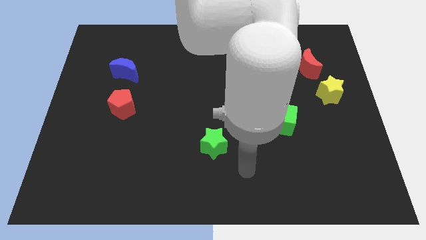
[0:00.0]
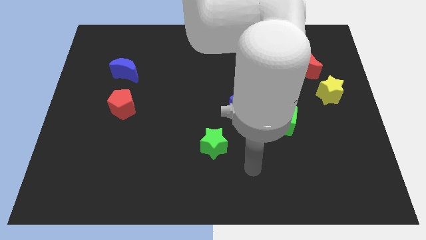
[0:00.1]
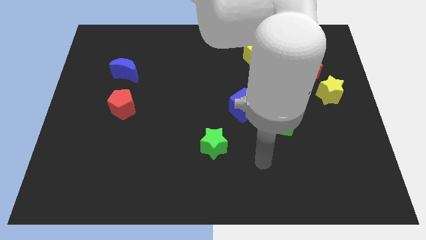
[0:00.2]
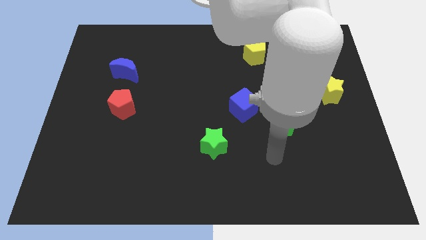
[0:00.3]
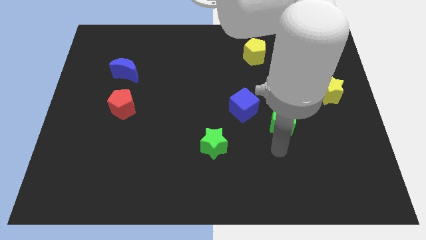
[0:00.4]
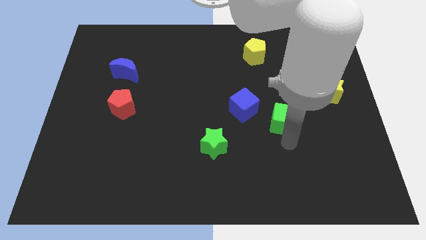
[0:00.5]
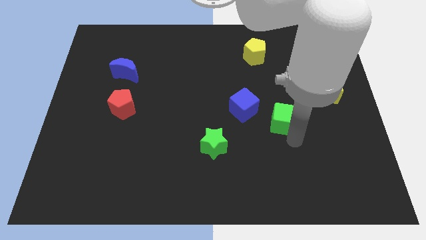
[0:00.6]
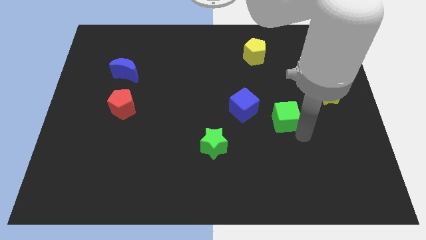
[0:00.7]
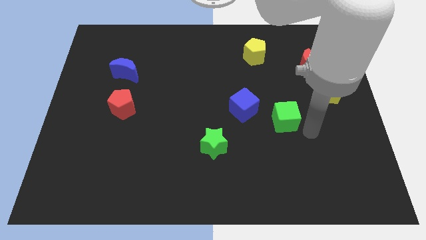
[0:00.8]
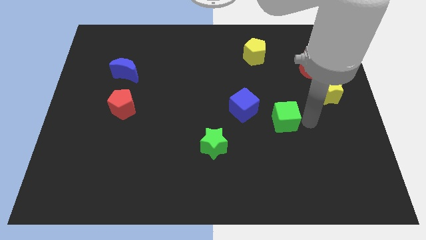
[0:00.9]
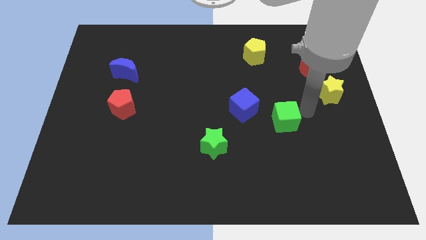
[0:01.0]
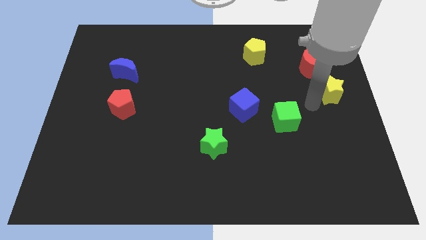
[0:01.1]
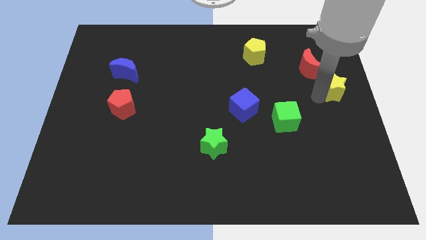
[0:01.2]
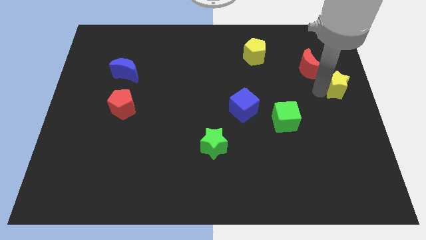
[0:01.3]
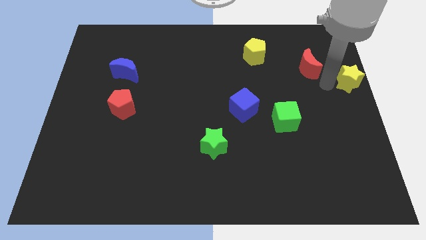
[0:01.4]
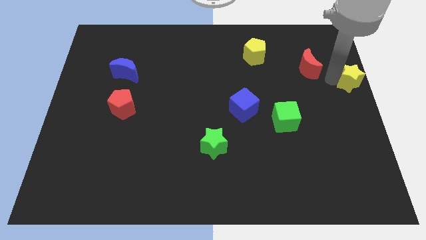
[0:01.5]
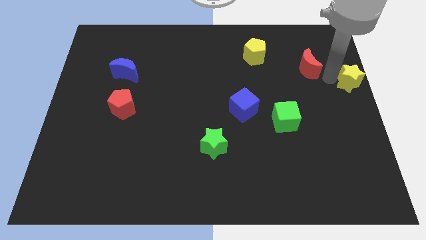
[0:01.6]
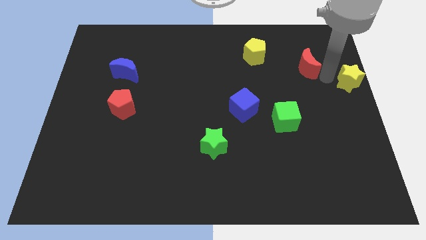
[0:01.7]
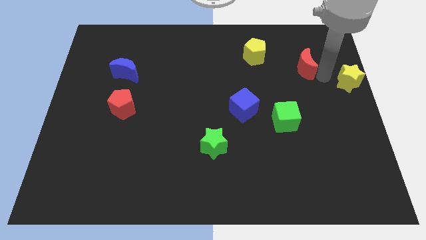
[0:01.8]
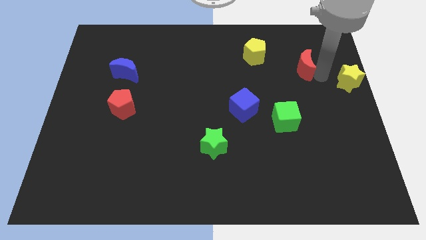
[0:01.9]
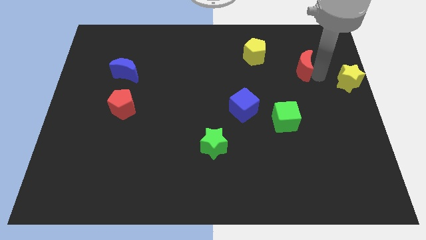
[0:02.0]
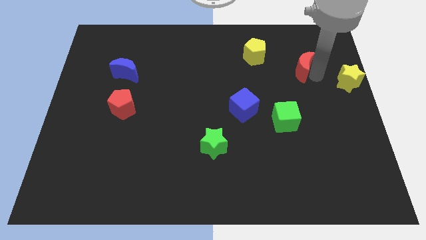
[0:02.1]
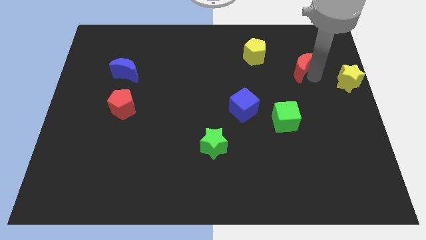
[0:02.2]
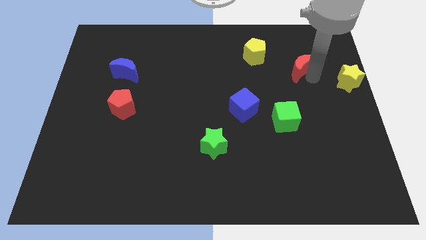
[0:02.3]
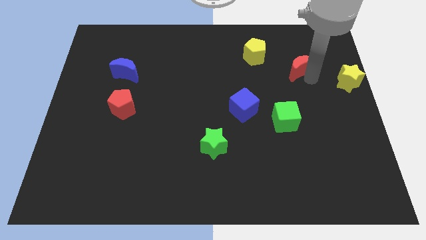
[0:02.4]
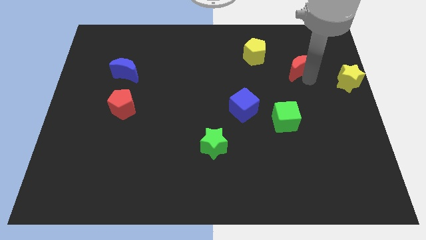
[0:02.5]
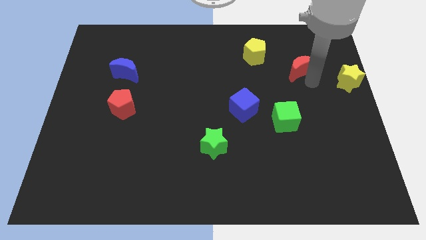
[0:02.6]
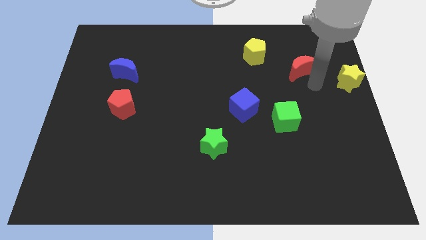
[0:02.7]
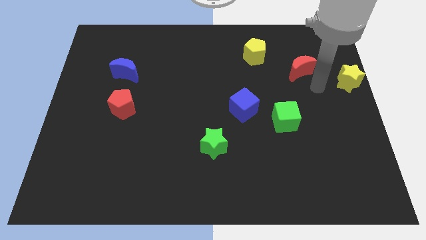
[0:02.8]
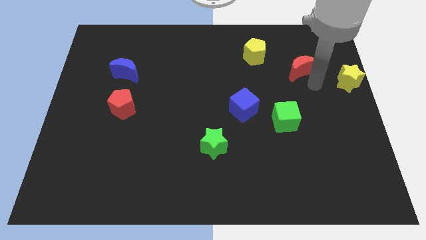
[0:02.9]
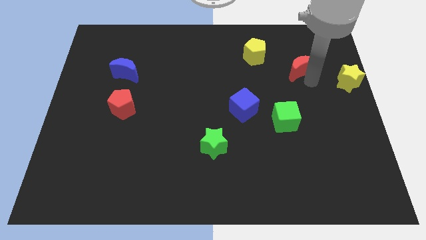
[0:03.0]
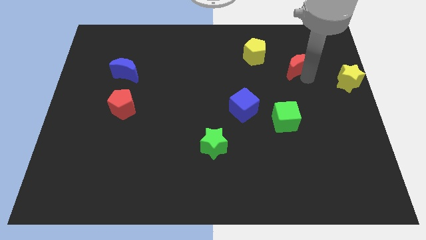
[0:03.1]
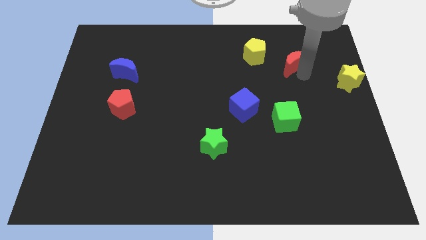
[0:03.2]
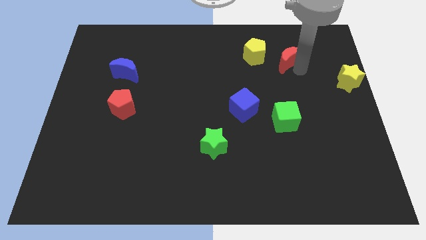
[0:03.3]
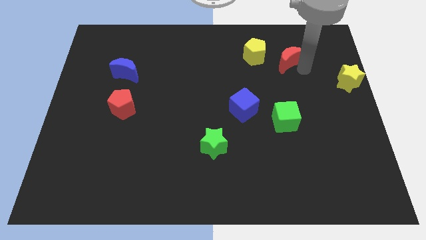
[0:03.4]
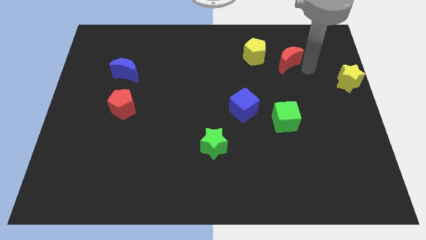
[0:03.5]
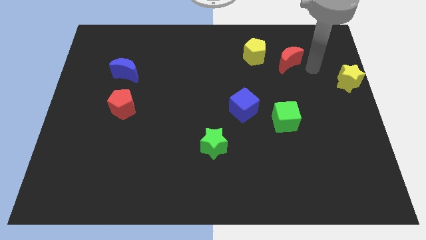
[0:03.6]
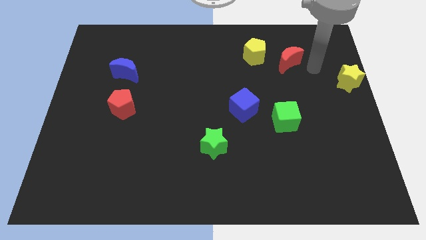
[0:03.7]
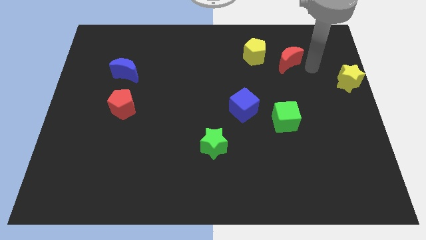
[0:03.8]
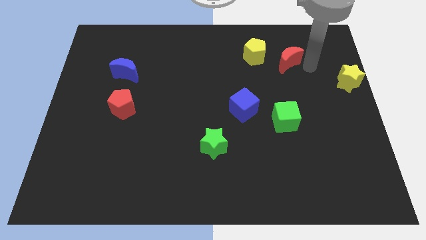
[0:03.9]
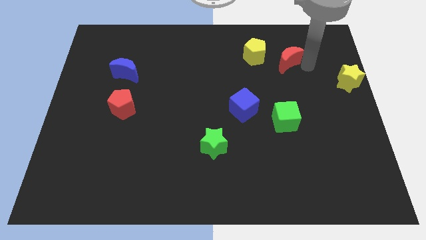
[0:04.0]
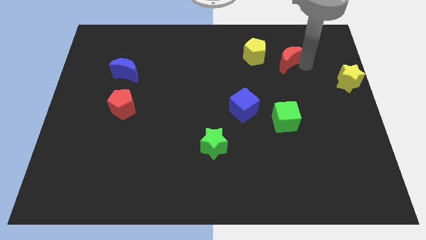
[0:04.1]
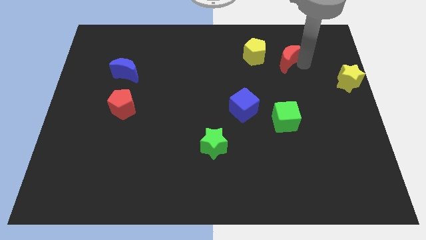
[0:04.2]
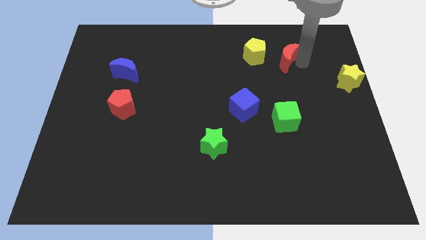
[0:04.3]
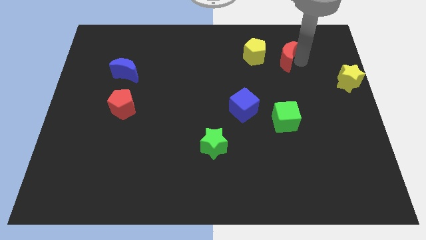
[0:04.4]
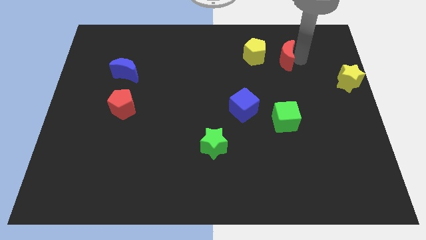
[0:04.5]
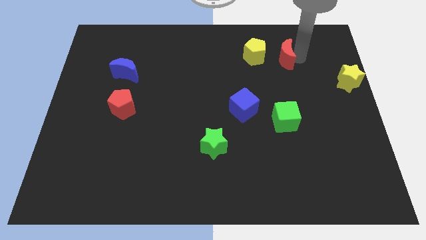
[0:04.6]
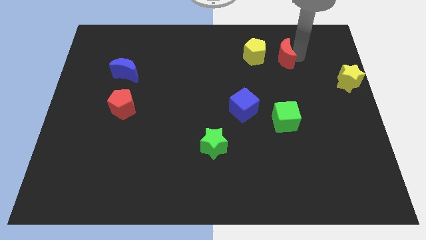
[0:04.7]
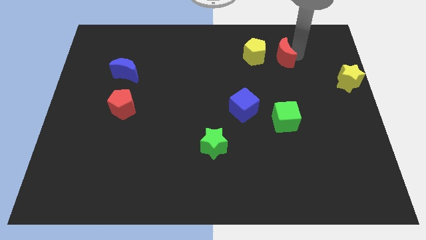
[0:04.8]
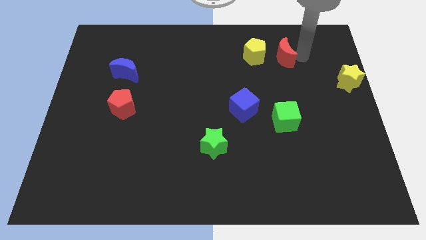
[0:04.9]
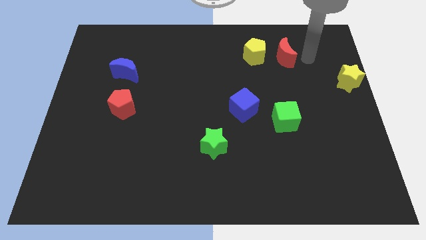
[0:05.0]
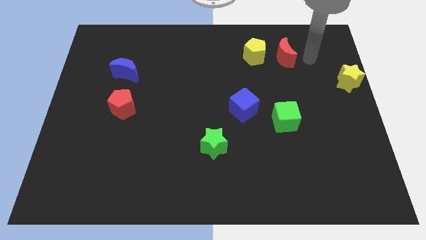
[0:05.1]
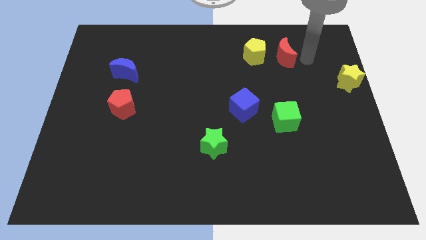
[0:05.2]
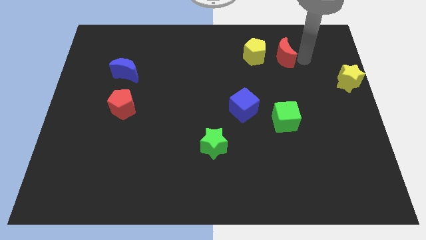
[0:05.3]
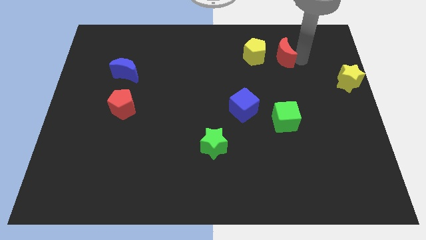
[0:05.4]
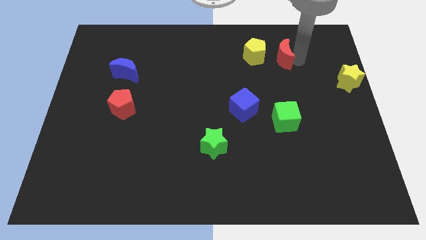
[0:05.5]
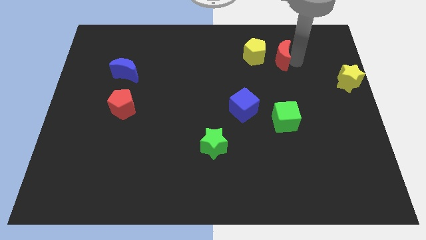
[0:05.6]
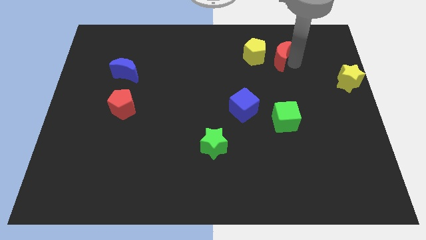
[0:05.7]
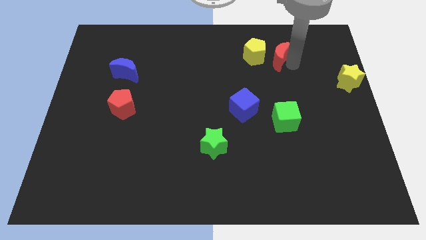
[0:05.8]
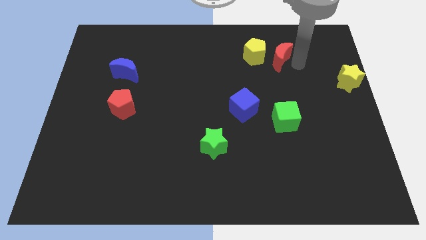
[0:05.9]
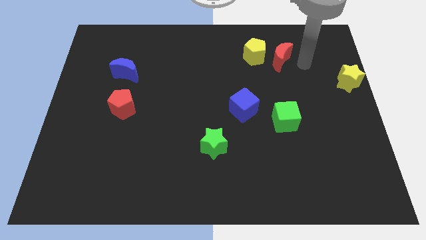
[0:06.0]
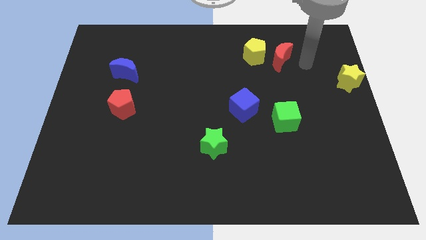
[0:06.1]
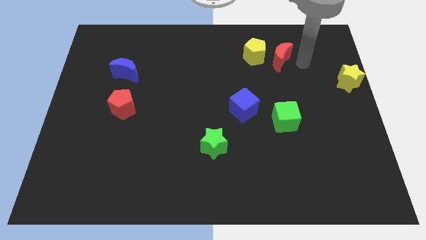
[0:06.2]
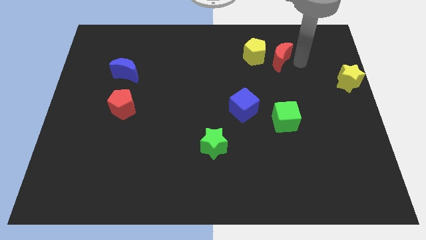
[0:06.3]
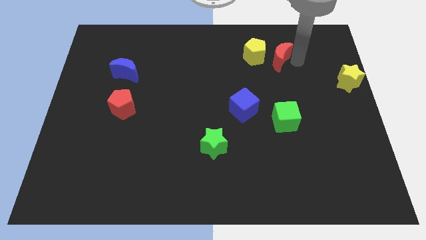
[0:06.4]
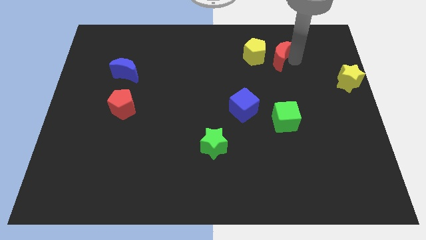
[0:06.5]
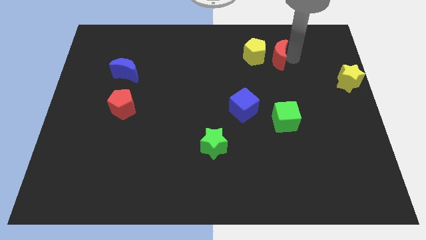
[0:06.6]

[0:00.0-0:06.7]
slide the red moon towards the yellow pentagon

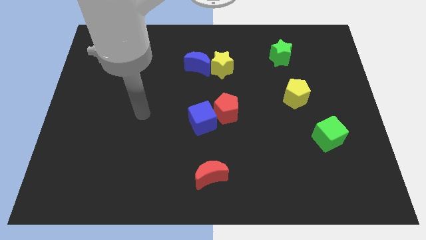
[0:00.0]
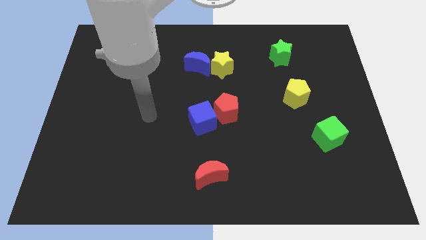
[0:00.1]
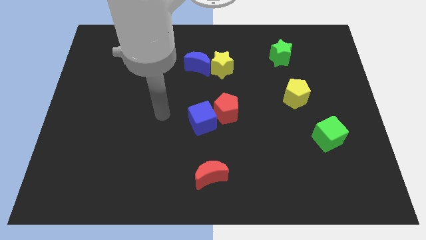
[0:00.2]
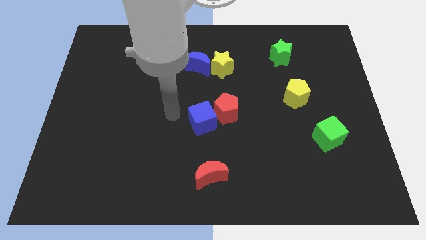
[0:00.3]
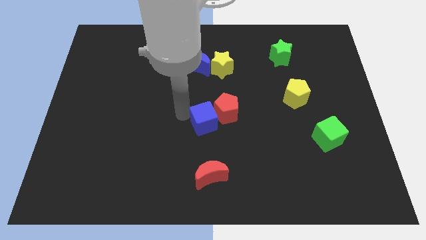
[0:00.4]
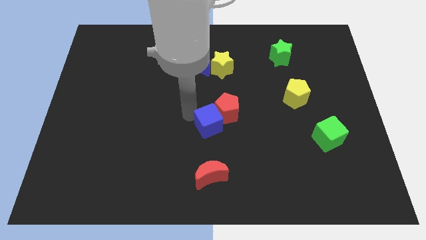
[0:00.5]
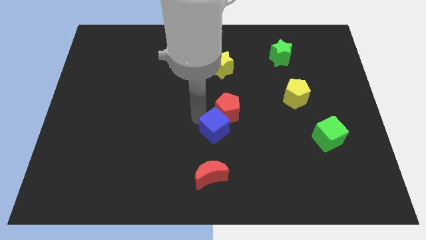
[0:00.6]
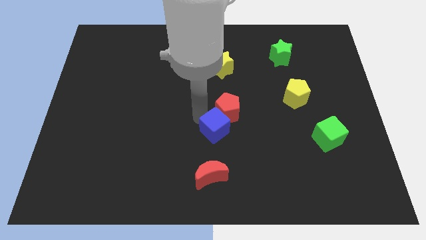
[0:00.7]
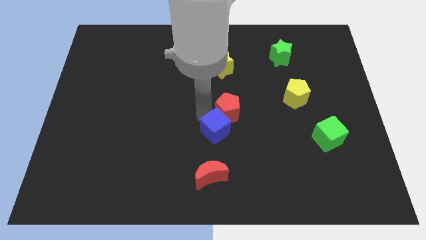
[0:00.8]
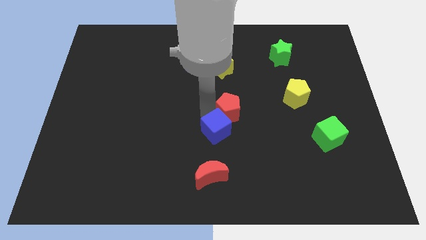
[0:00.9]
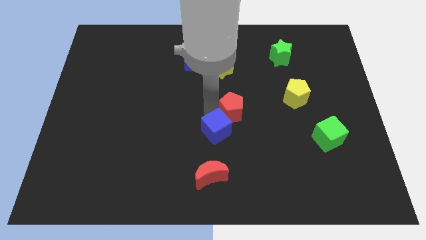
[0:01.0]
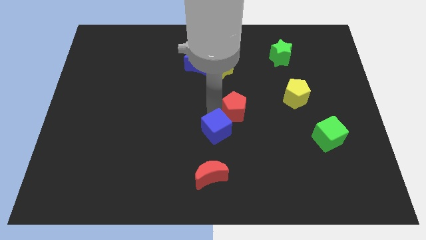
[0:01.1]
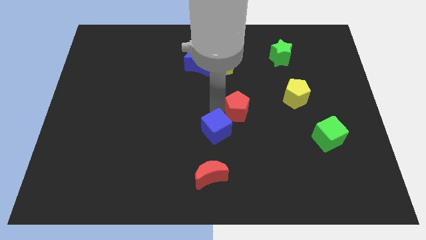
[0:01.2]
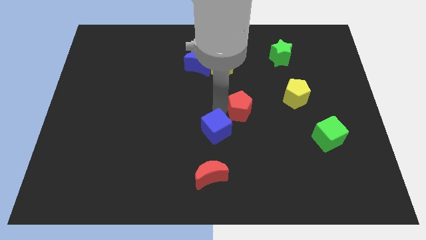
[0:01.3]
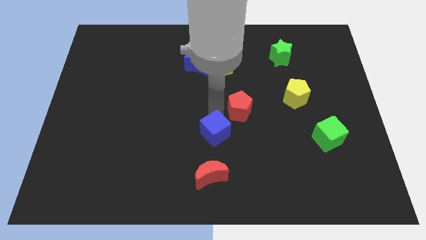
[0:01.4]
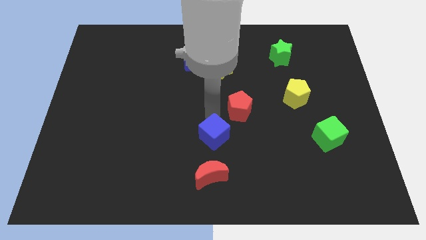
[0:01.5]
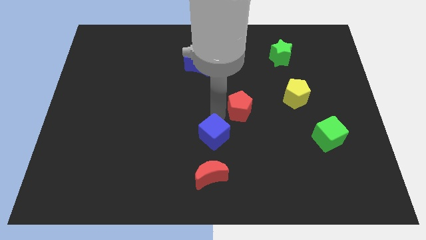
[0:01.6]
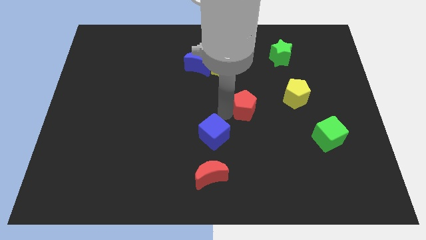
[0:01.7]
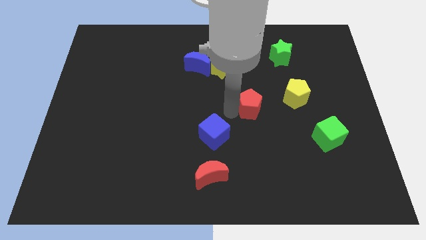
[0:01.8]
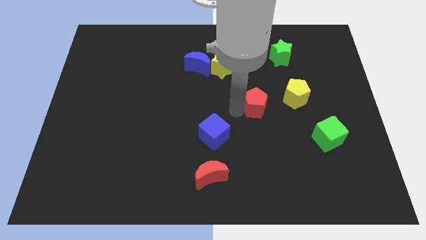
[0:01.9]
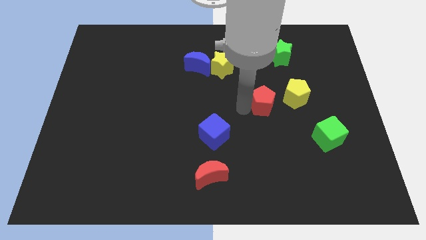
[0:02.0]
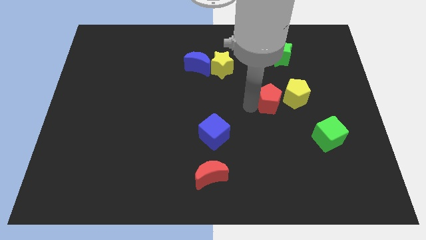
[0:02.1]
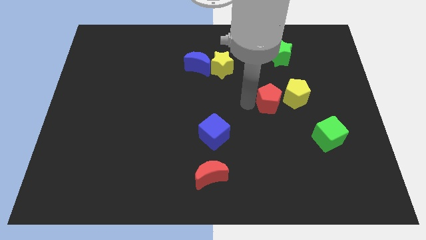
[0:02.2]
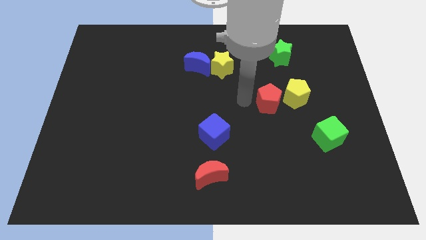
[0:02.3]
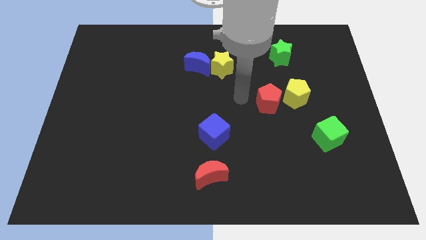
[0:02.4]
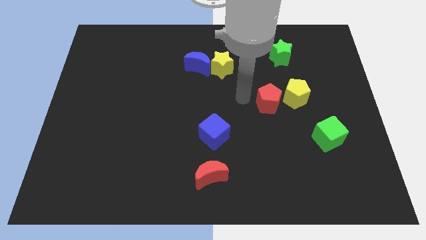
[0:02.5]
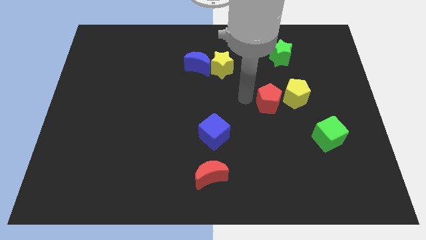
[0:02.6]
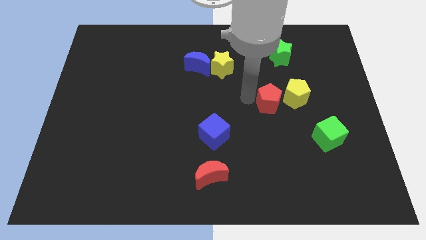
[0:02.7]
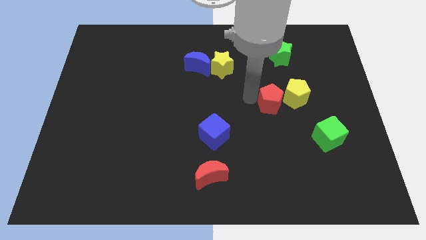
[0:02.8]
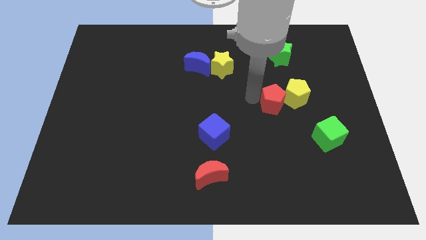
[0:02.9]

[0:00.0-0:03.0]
put the red pentagon close to the yellow pentagon
